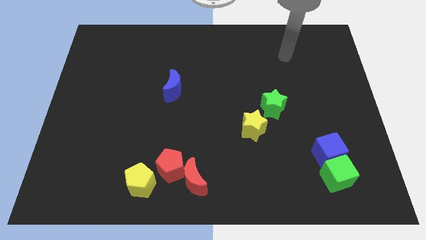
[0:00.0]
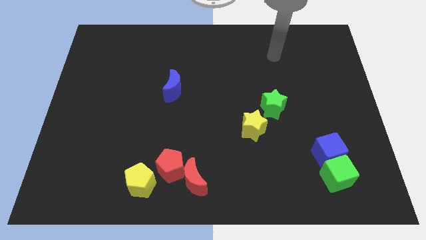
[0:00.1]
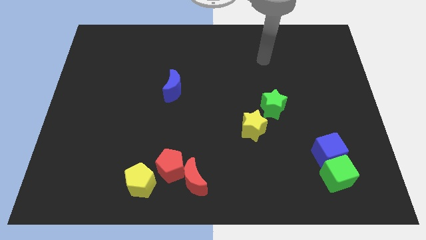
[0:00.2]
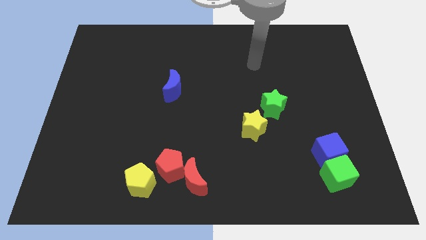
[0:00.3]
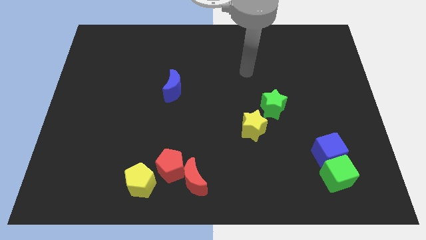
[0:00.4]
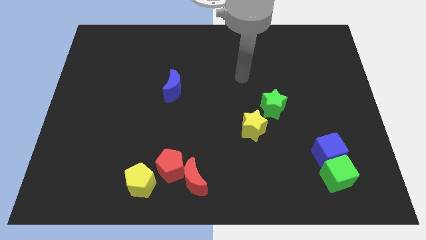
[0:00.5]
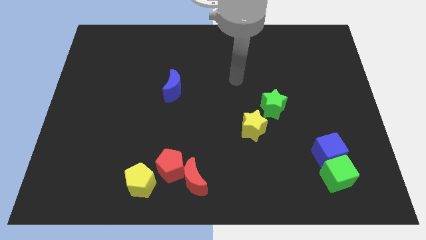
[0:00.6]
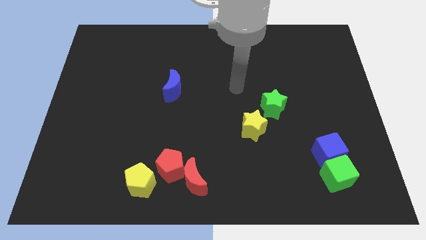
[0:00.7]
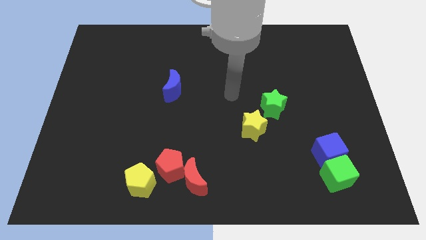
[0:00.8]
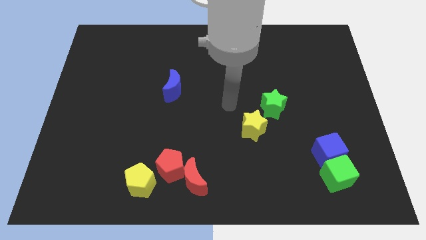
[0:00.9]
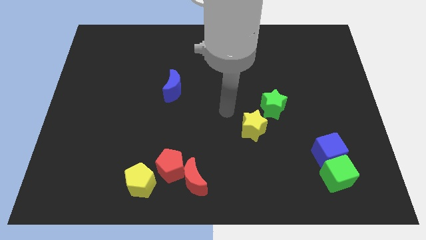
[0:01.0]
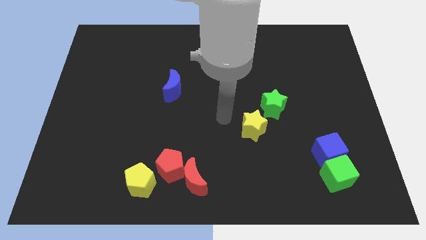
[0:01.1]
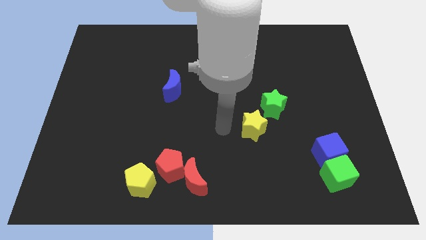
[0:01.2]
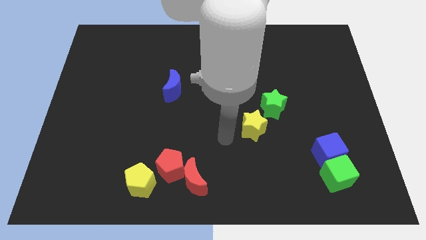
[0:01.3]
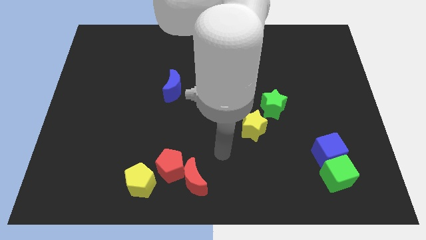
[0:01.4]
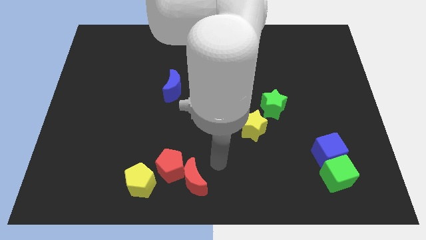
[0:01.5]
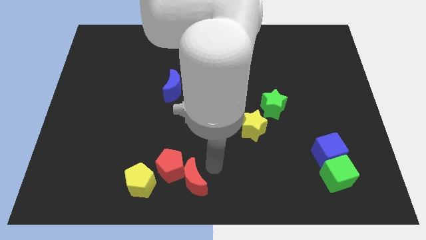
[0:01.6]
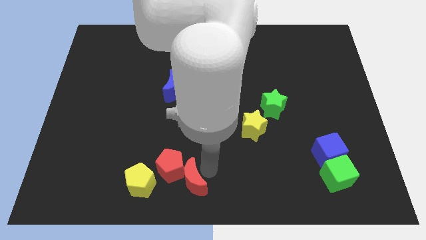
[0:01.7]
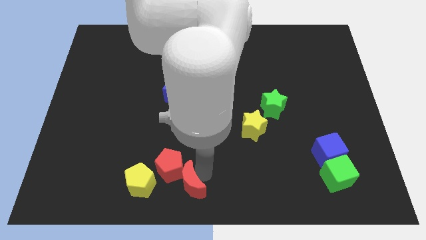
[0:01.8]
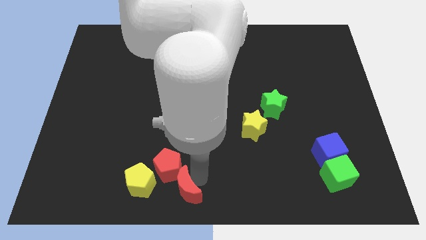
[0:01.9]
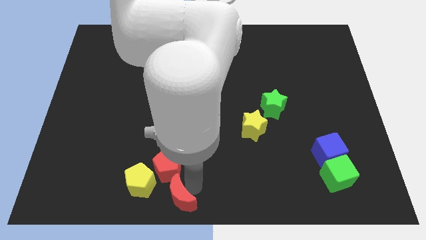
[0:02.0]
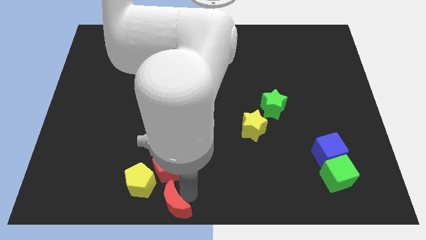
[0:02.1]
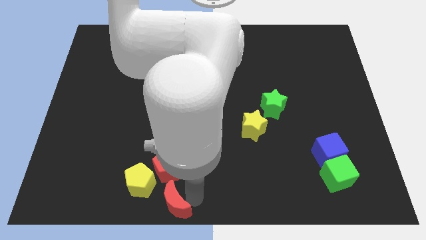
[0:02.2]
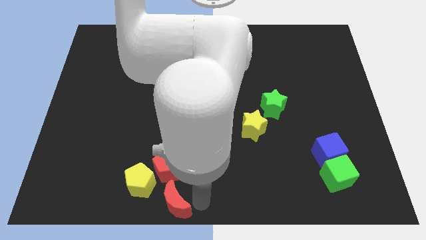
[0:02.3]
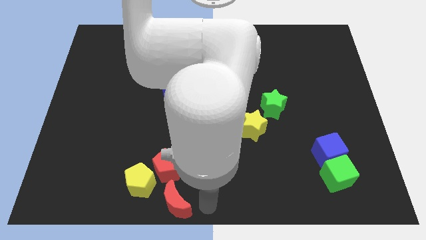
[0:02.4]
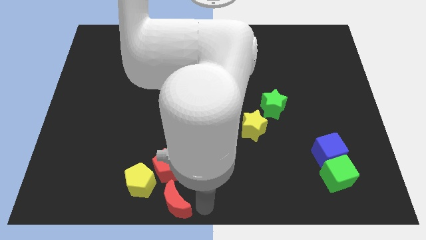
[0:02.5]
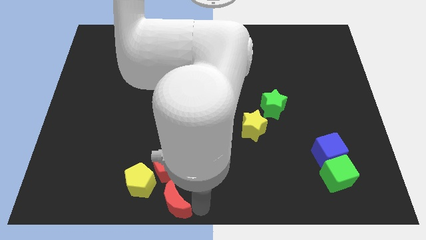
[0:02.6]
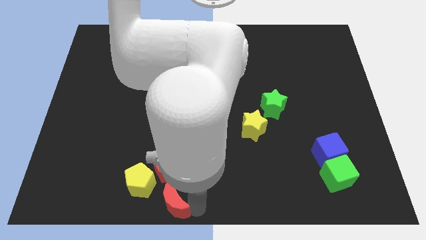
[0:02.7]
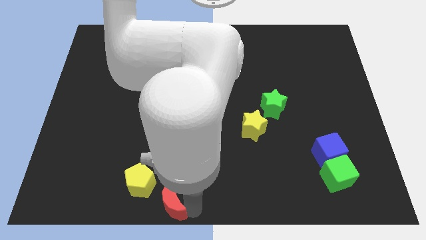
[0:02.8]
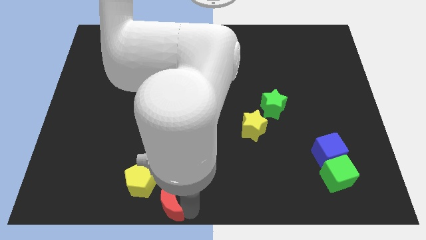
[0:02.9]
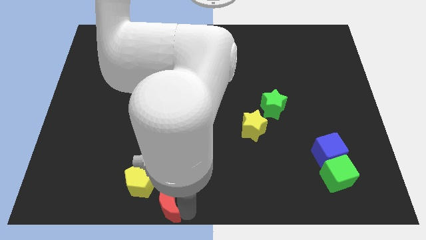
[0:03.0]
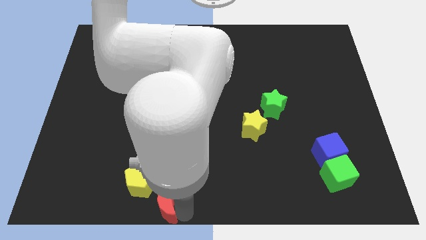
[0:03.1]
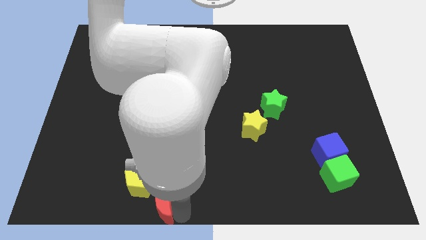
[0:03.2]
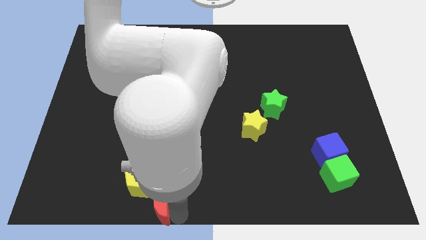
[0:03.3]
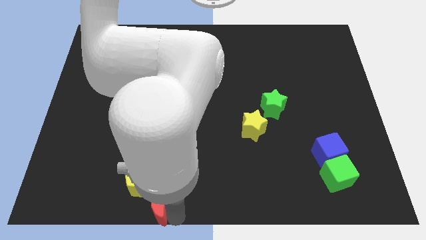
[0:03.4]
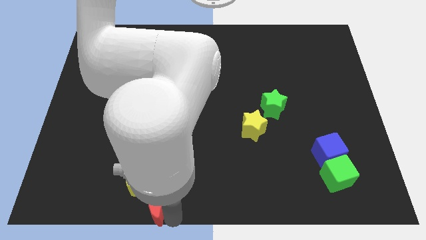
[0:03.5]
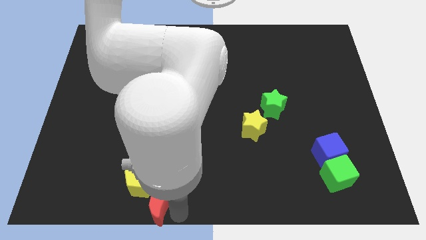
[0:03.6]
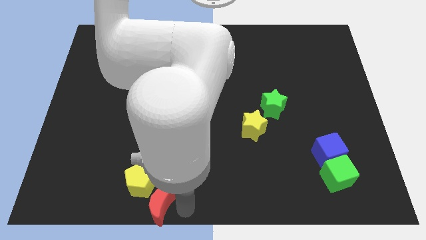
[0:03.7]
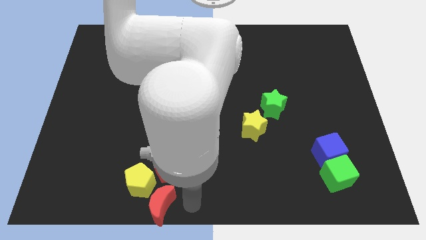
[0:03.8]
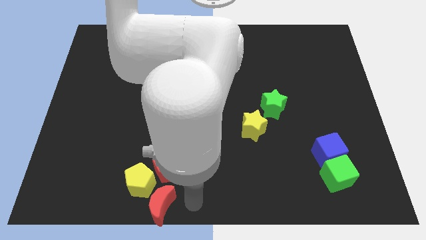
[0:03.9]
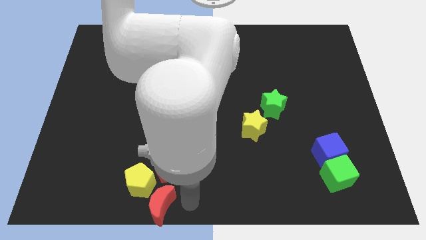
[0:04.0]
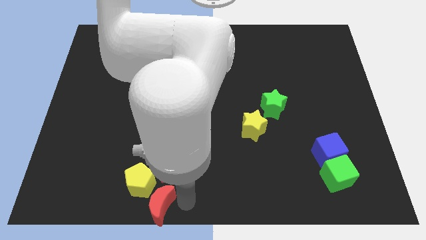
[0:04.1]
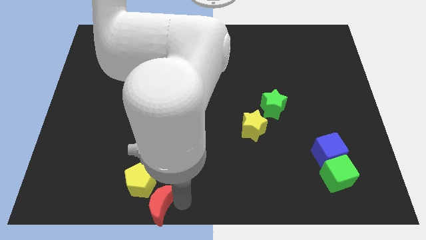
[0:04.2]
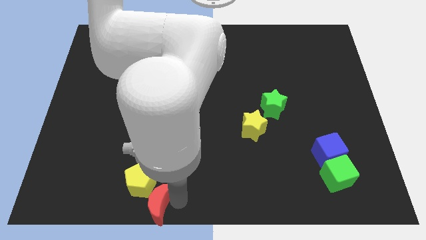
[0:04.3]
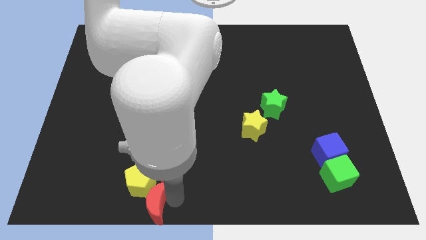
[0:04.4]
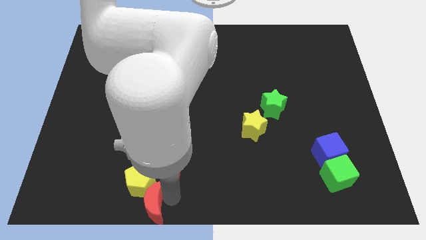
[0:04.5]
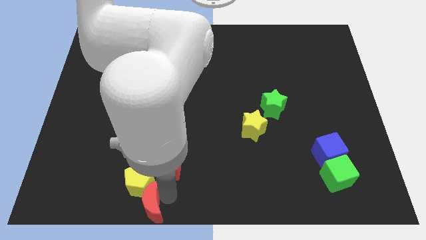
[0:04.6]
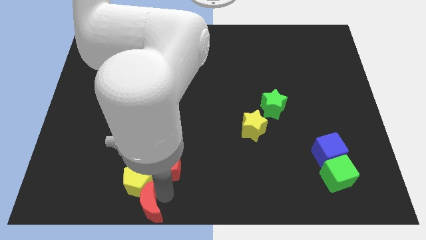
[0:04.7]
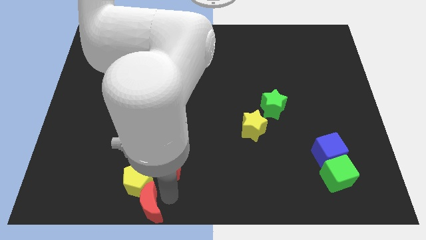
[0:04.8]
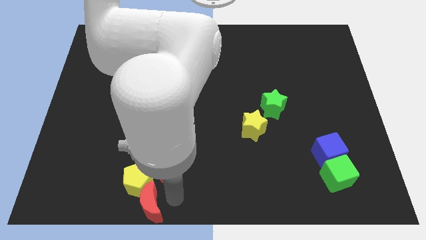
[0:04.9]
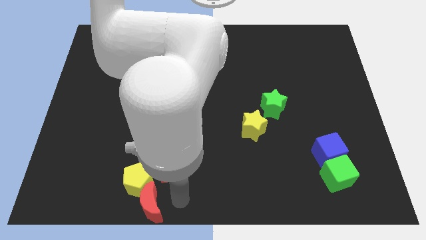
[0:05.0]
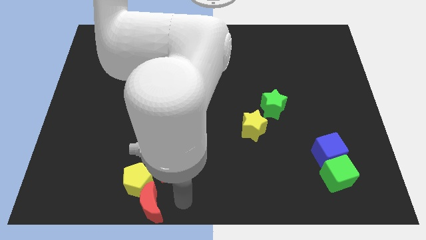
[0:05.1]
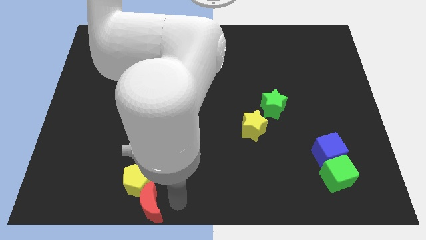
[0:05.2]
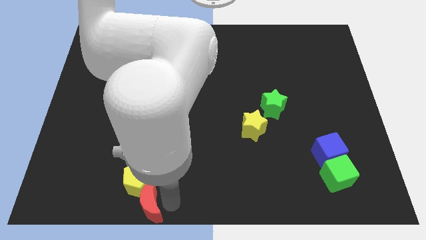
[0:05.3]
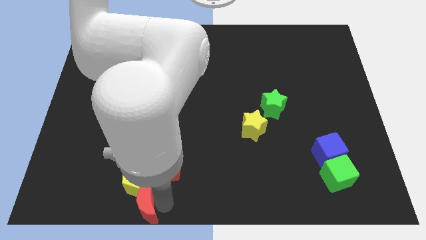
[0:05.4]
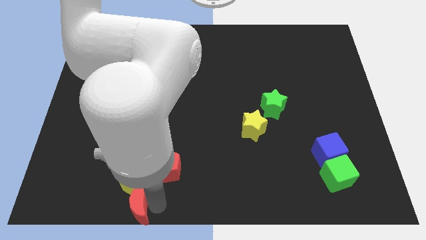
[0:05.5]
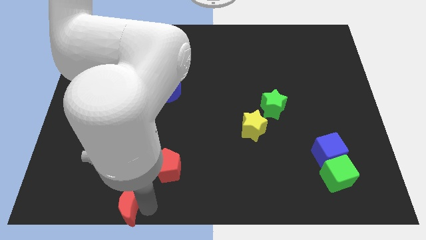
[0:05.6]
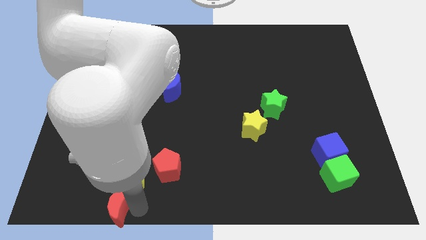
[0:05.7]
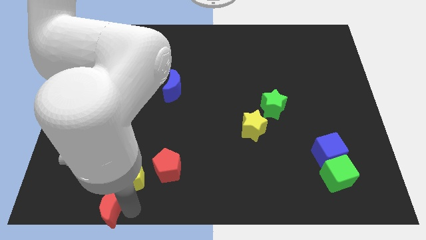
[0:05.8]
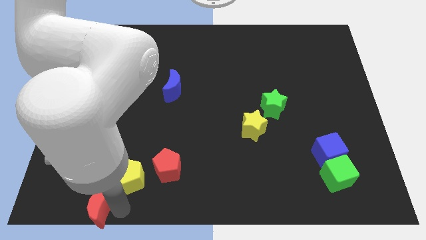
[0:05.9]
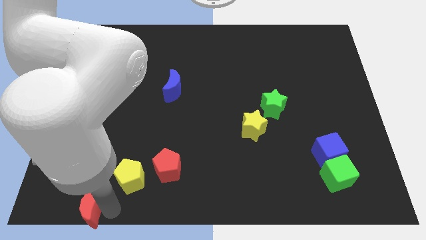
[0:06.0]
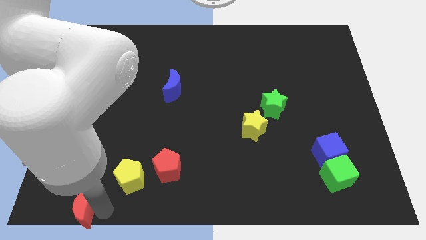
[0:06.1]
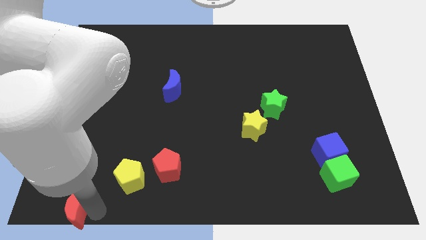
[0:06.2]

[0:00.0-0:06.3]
push the red moon to the lower left corner
